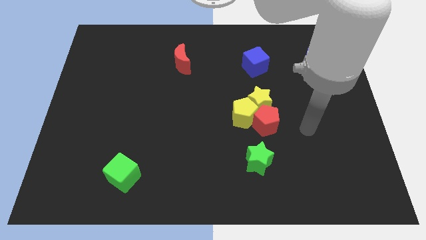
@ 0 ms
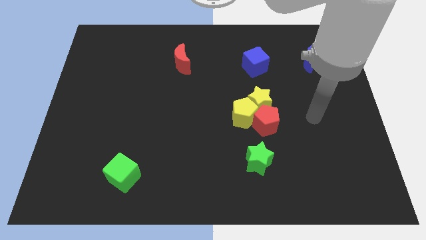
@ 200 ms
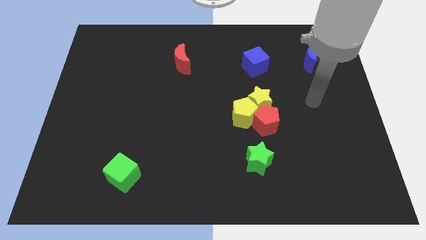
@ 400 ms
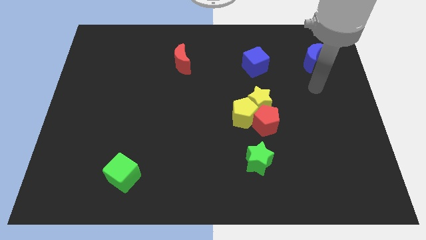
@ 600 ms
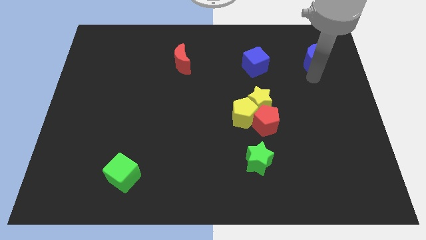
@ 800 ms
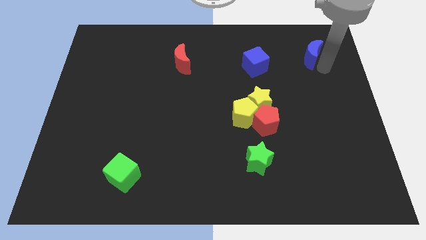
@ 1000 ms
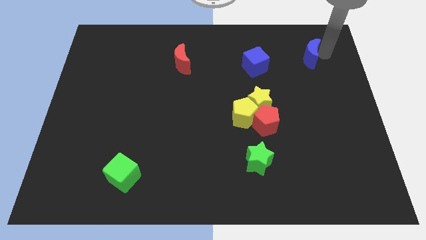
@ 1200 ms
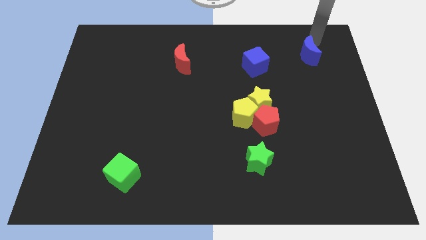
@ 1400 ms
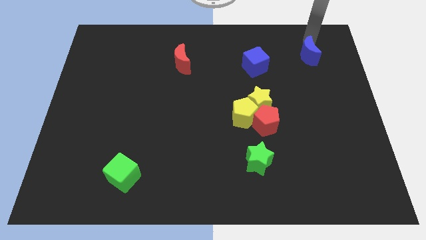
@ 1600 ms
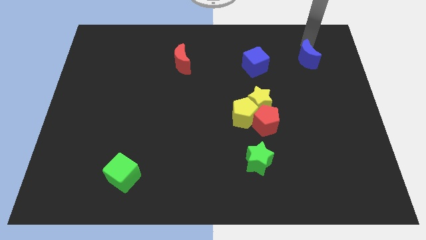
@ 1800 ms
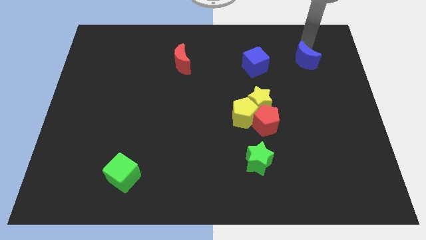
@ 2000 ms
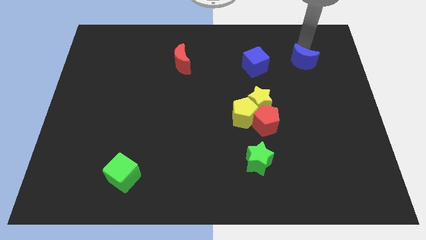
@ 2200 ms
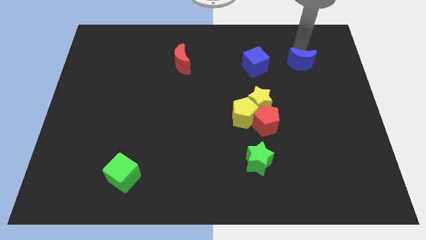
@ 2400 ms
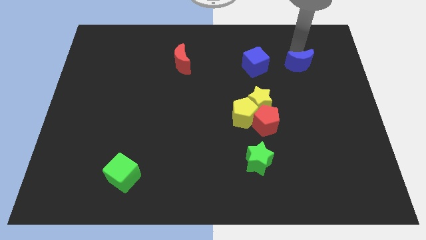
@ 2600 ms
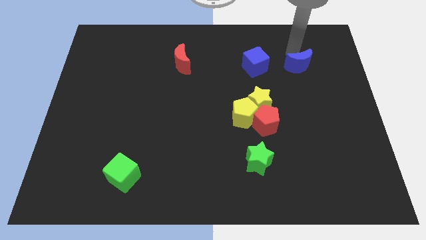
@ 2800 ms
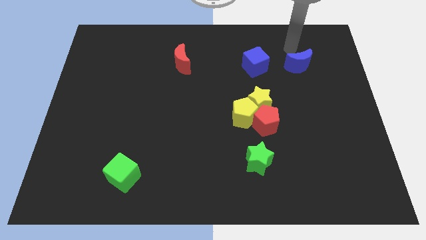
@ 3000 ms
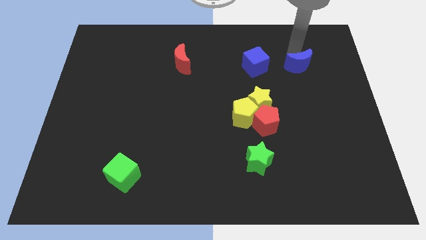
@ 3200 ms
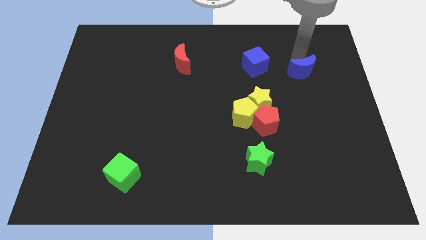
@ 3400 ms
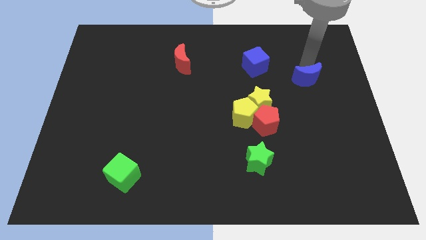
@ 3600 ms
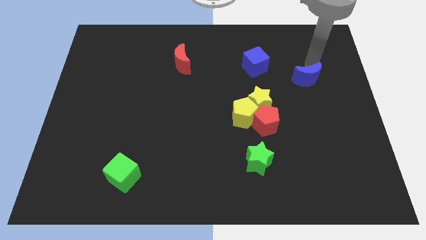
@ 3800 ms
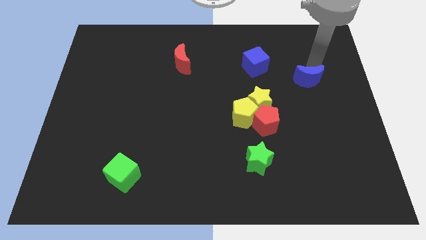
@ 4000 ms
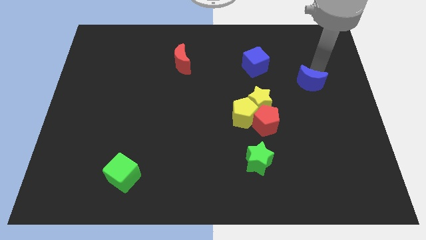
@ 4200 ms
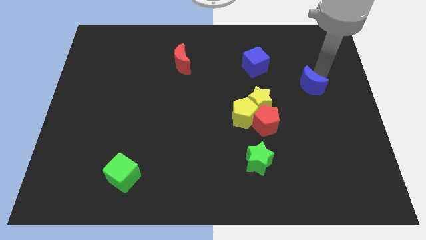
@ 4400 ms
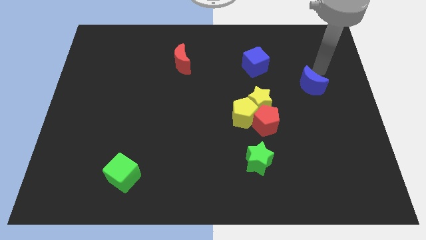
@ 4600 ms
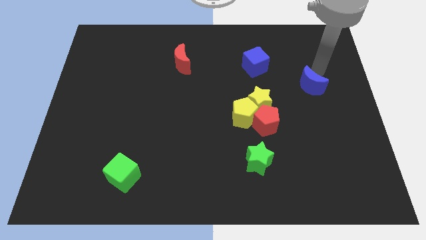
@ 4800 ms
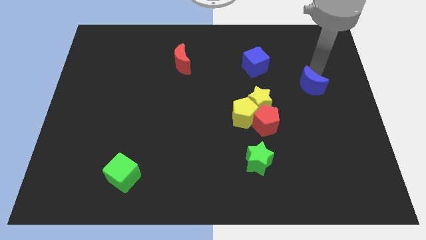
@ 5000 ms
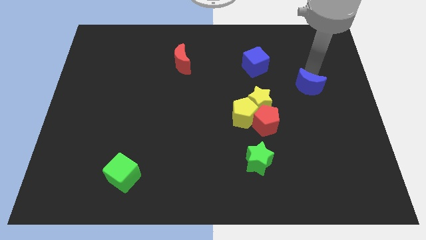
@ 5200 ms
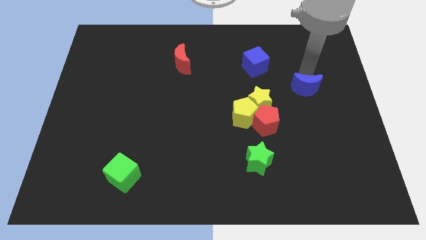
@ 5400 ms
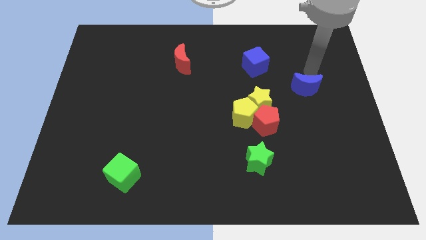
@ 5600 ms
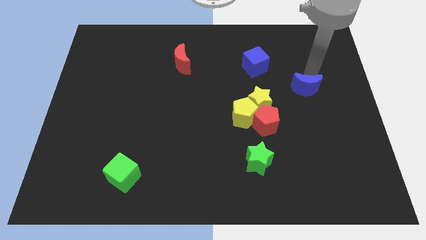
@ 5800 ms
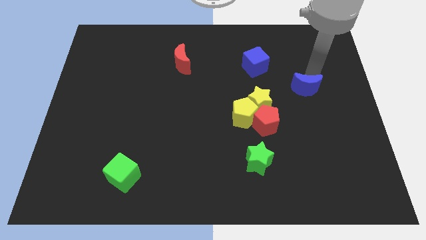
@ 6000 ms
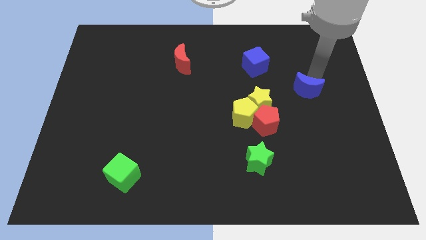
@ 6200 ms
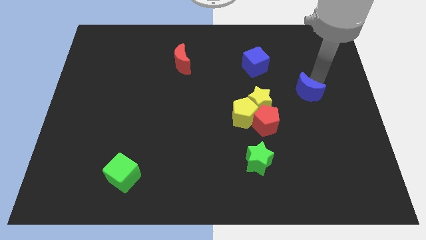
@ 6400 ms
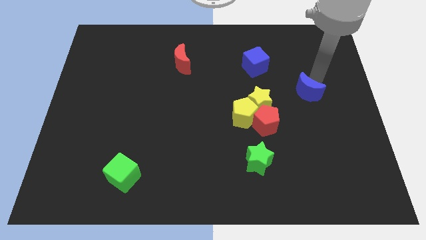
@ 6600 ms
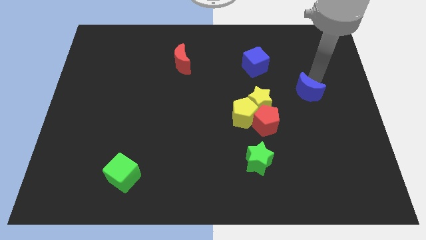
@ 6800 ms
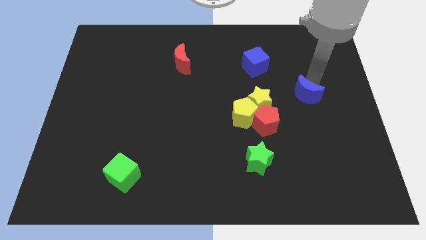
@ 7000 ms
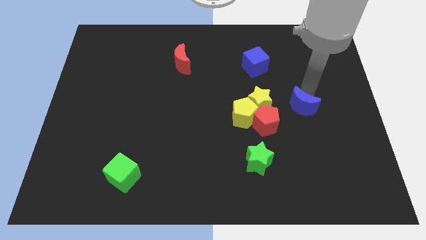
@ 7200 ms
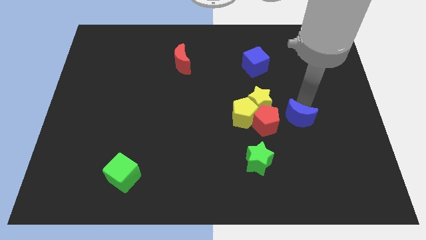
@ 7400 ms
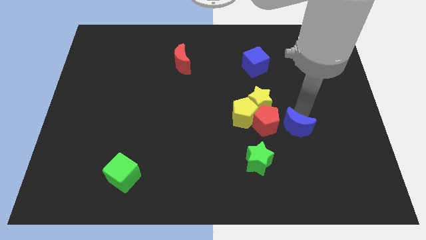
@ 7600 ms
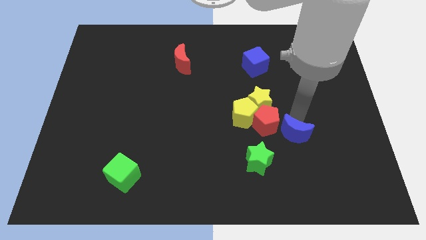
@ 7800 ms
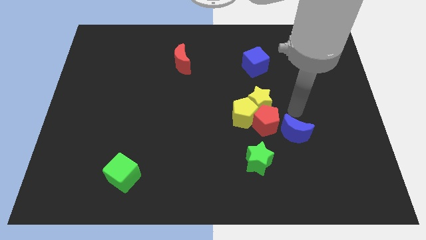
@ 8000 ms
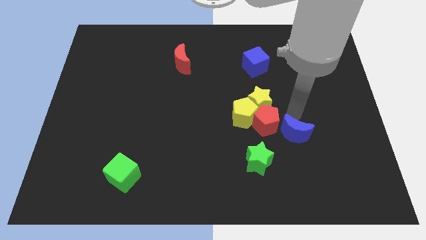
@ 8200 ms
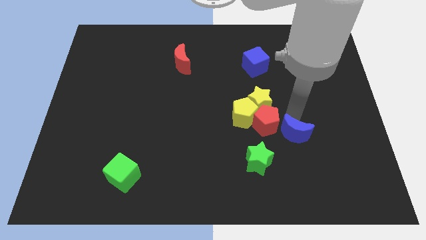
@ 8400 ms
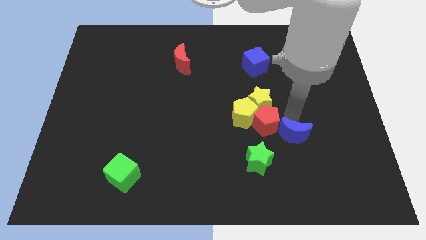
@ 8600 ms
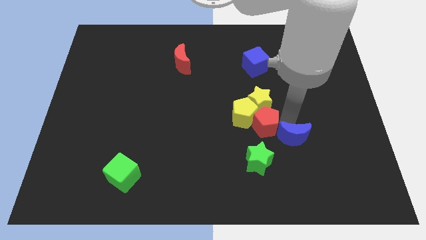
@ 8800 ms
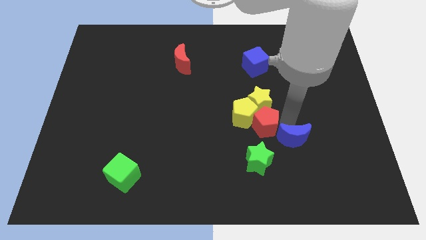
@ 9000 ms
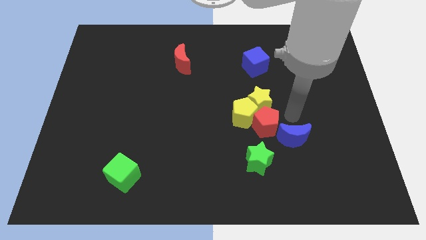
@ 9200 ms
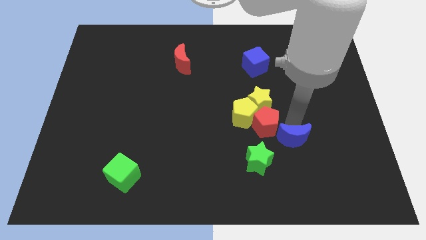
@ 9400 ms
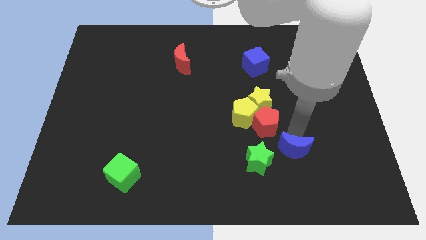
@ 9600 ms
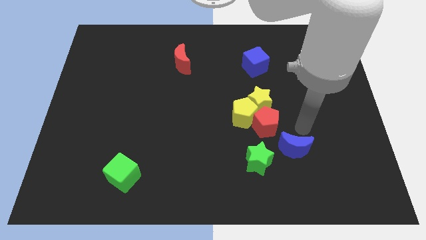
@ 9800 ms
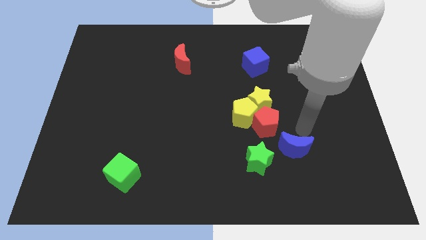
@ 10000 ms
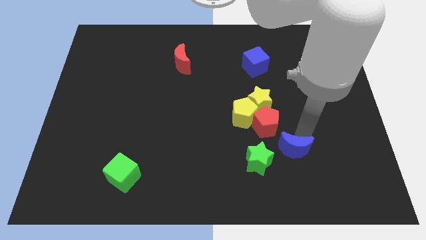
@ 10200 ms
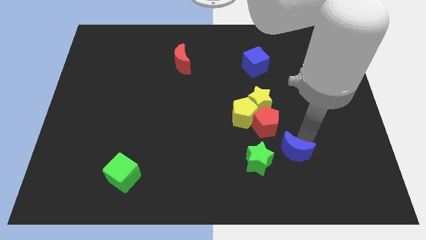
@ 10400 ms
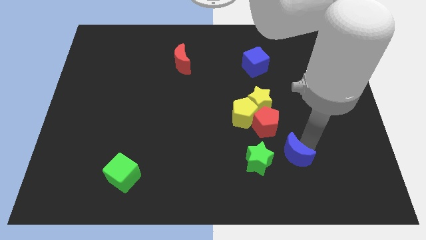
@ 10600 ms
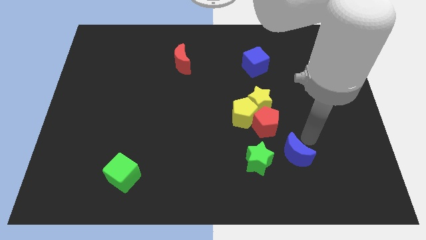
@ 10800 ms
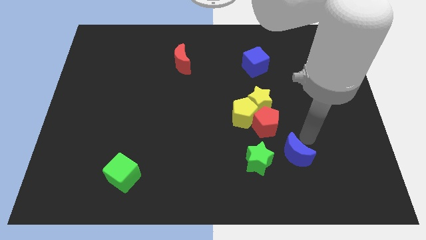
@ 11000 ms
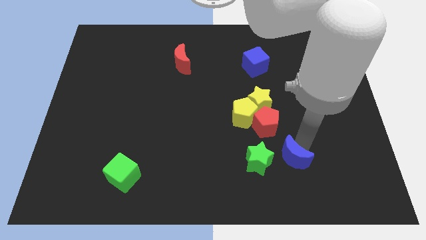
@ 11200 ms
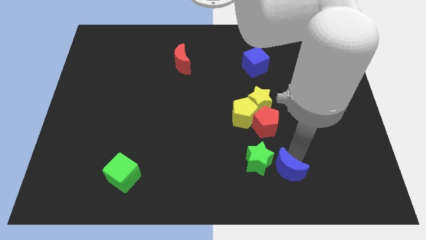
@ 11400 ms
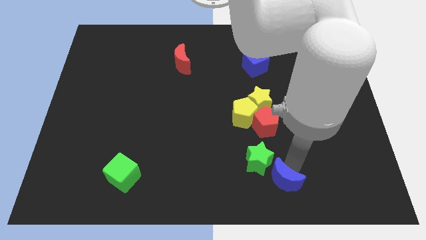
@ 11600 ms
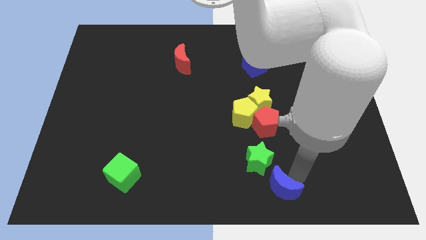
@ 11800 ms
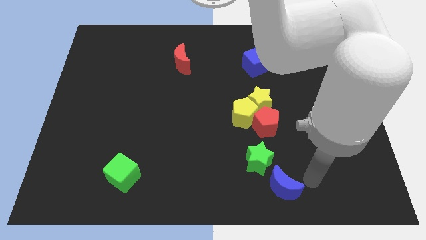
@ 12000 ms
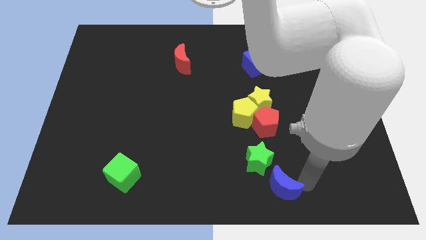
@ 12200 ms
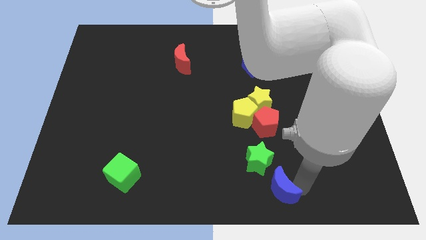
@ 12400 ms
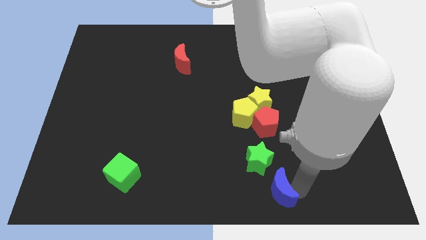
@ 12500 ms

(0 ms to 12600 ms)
slide the blue moon to the bottom side
